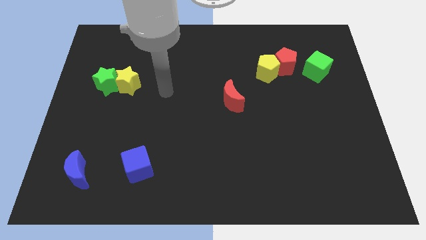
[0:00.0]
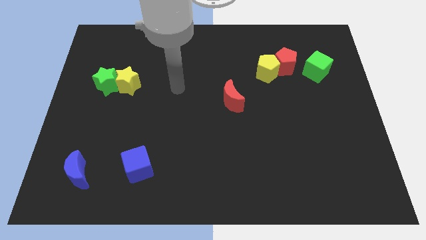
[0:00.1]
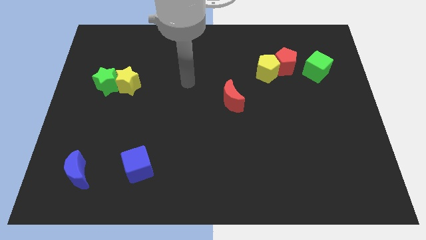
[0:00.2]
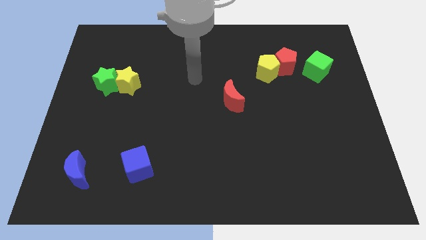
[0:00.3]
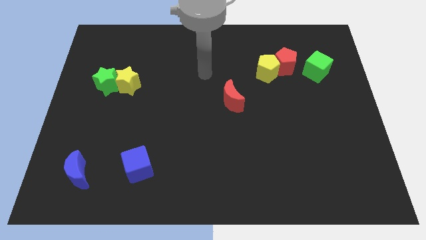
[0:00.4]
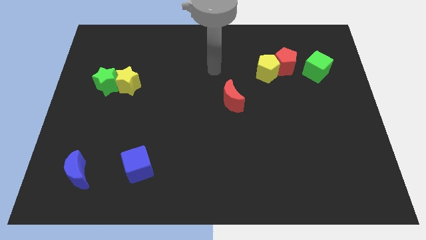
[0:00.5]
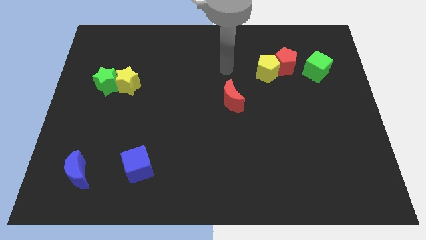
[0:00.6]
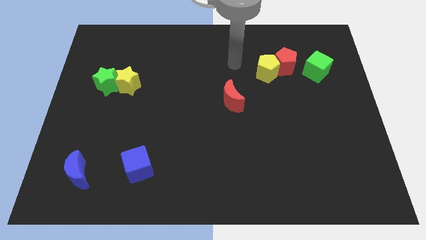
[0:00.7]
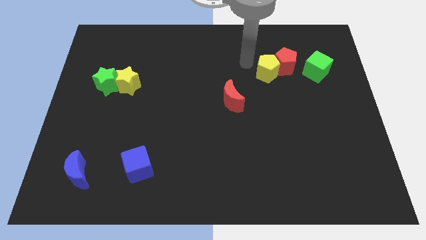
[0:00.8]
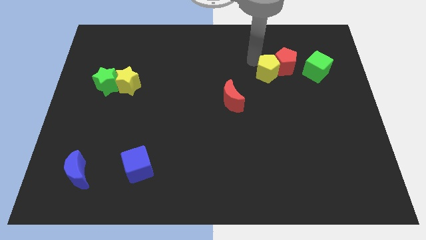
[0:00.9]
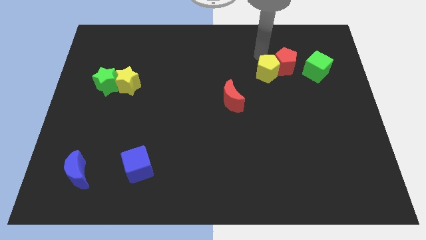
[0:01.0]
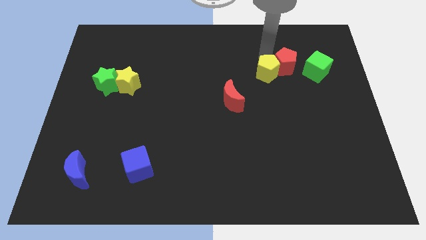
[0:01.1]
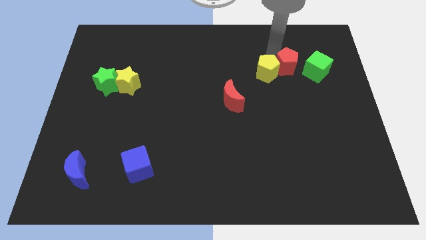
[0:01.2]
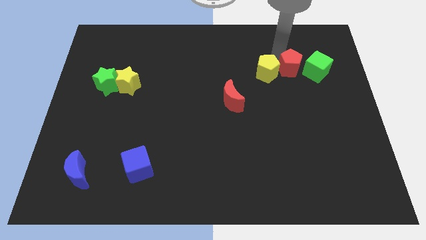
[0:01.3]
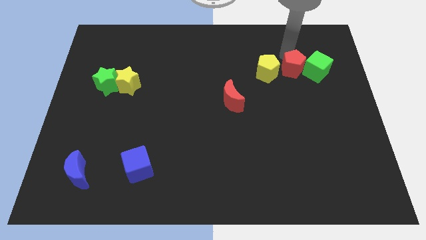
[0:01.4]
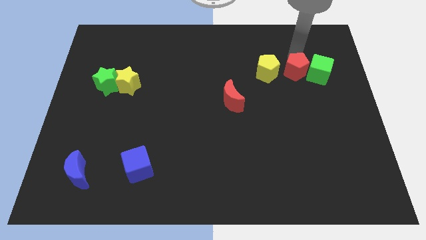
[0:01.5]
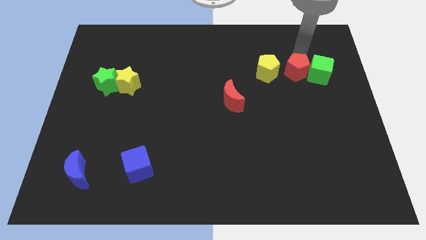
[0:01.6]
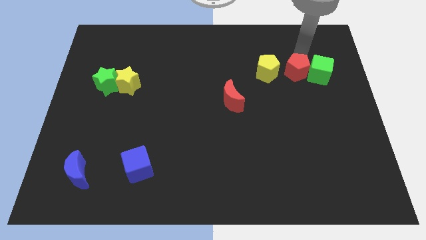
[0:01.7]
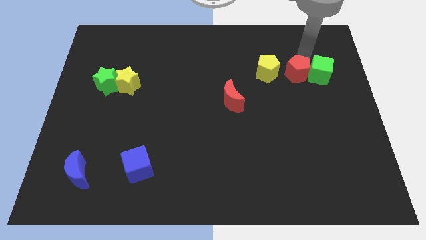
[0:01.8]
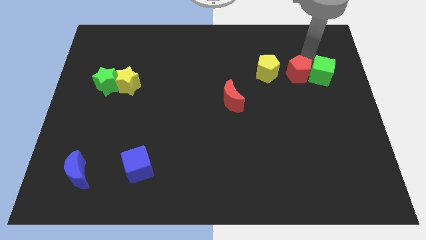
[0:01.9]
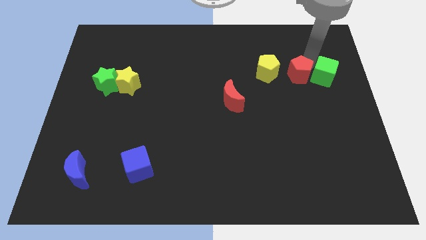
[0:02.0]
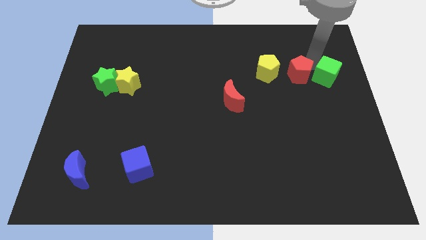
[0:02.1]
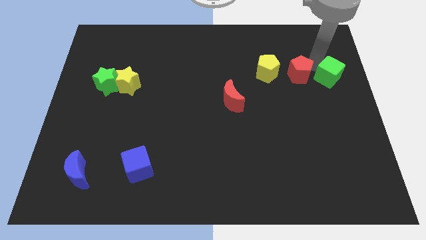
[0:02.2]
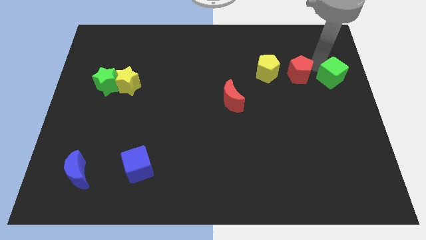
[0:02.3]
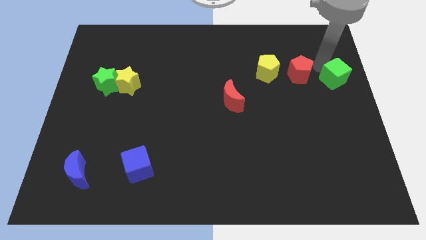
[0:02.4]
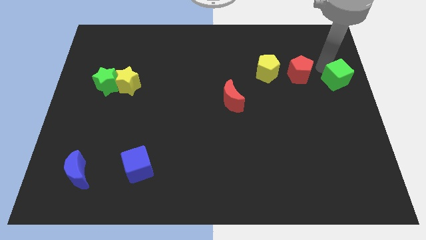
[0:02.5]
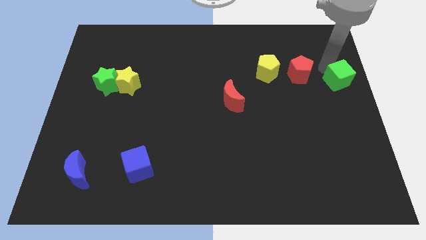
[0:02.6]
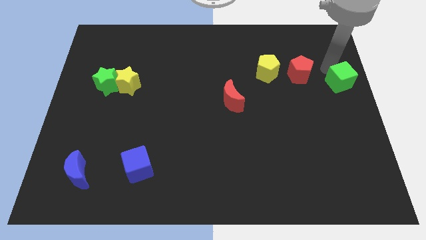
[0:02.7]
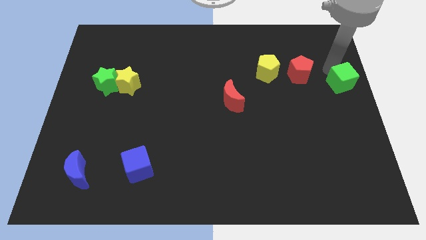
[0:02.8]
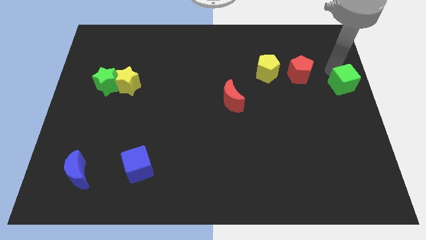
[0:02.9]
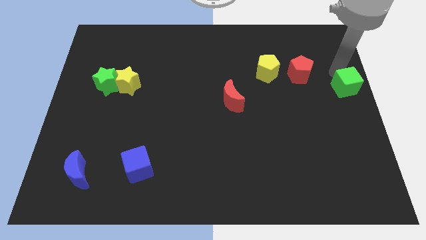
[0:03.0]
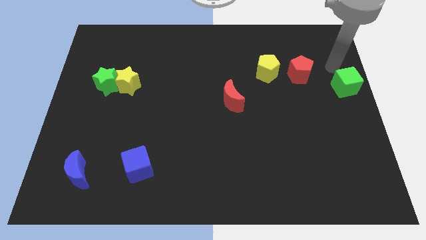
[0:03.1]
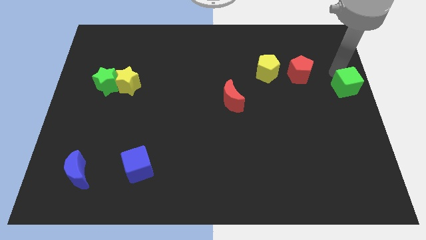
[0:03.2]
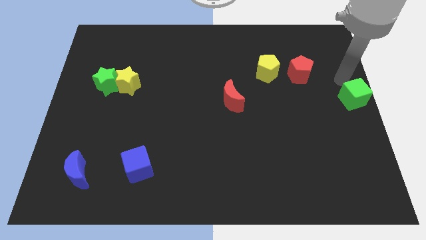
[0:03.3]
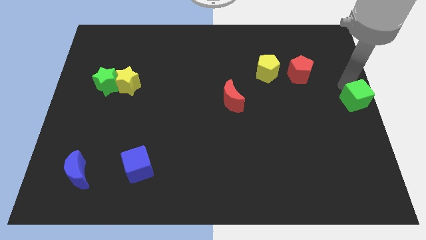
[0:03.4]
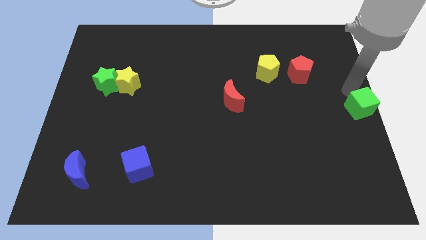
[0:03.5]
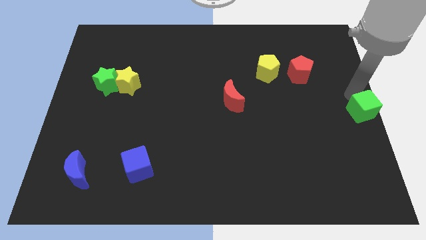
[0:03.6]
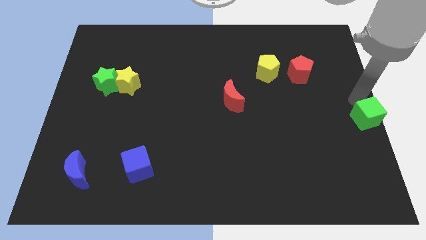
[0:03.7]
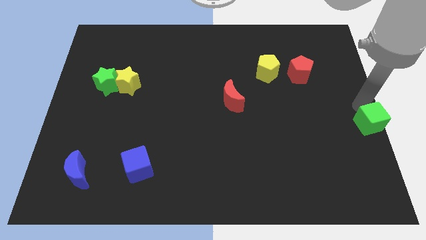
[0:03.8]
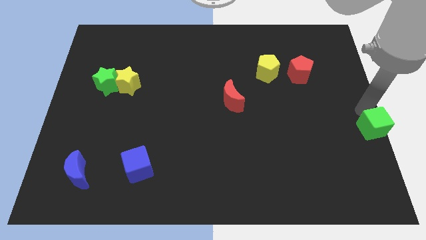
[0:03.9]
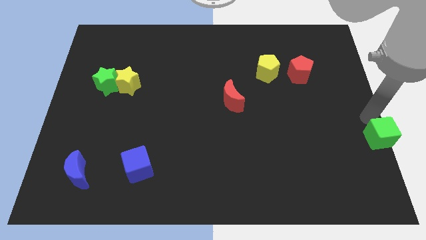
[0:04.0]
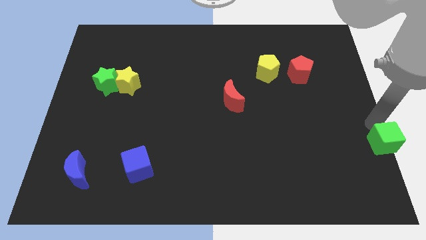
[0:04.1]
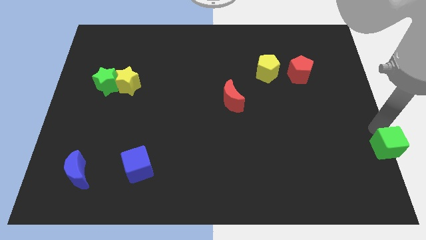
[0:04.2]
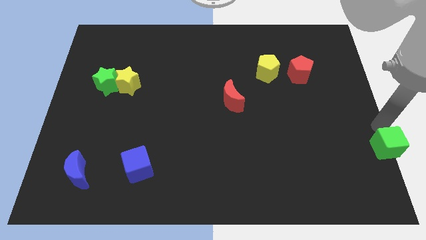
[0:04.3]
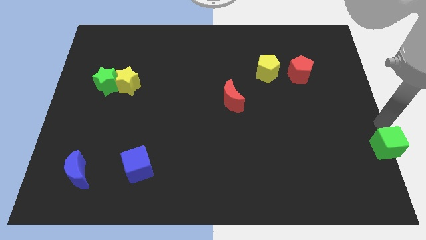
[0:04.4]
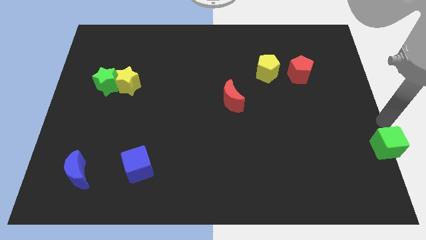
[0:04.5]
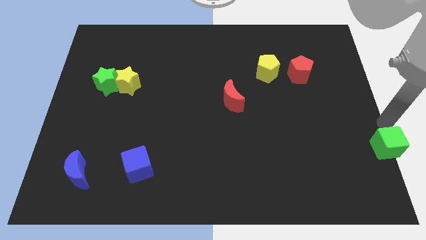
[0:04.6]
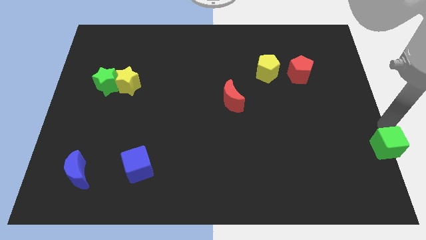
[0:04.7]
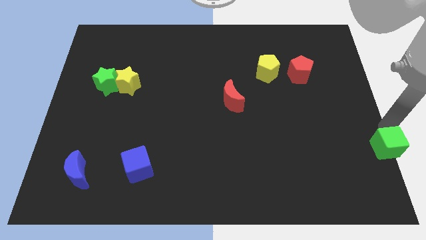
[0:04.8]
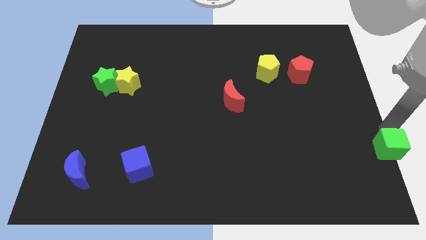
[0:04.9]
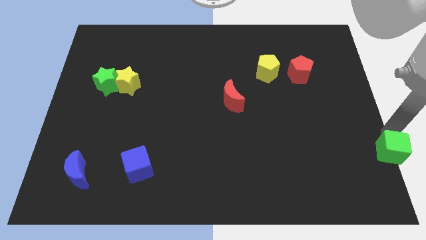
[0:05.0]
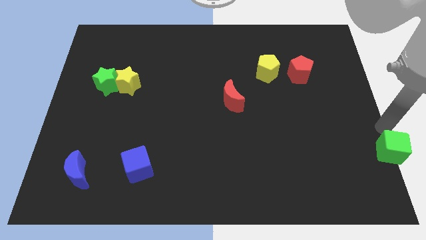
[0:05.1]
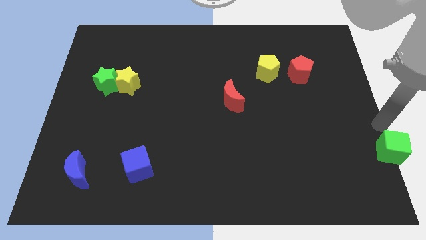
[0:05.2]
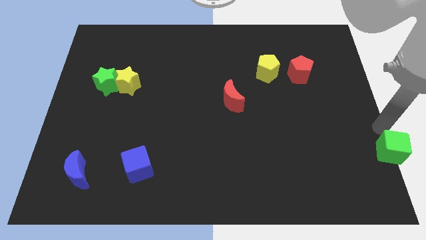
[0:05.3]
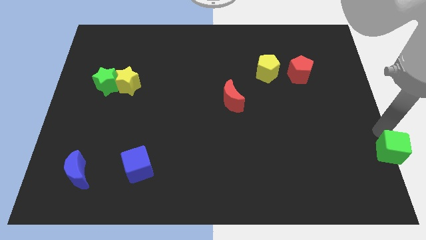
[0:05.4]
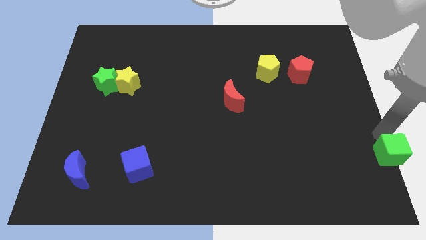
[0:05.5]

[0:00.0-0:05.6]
push the green cube to the bottom right of the board

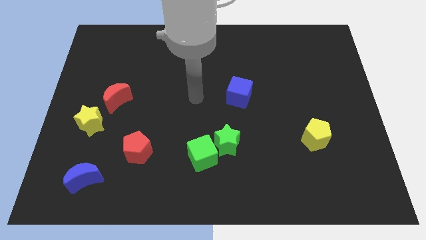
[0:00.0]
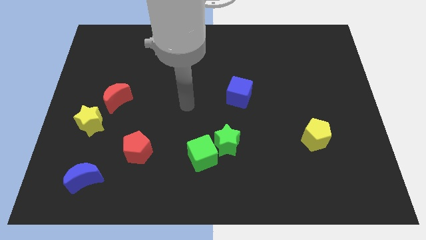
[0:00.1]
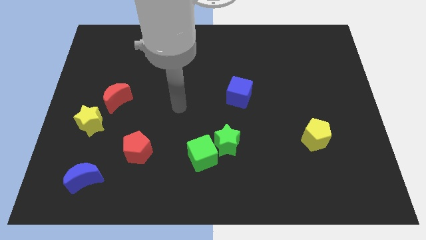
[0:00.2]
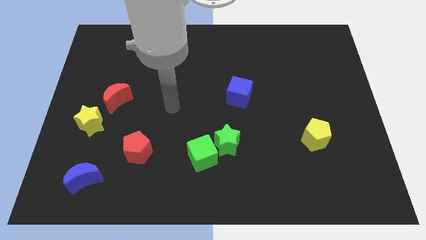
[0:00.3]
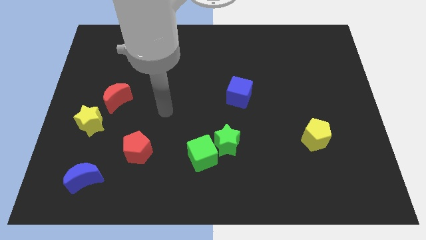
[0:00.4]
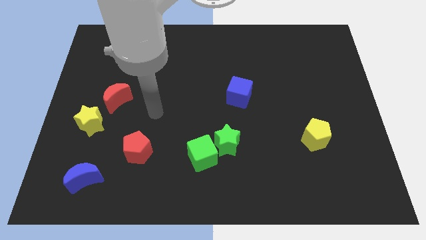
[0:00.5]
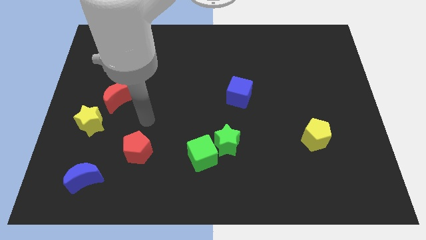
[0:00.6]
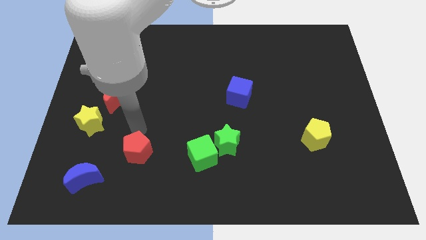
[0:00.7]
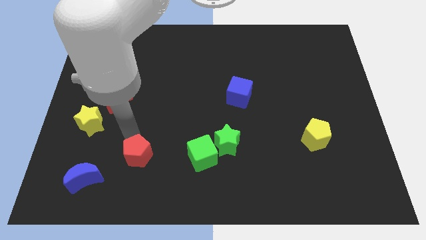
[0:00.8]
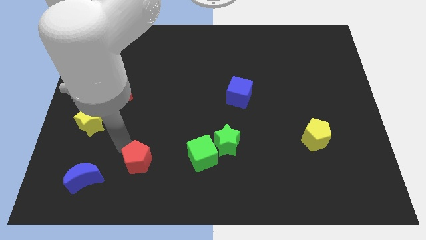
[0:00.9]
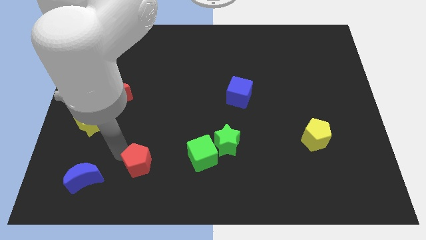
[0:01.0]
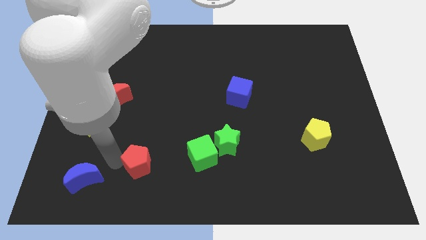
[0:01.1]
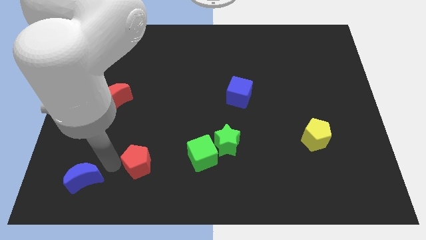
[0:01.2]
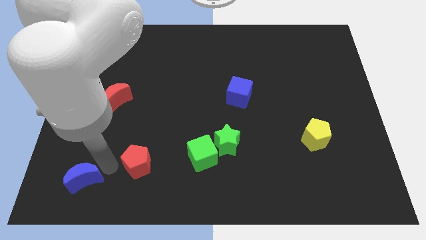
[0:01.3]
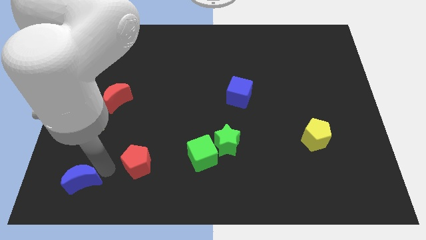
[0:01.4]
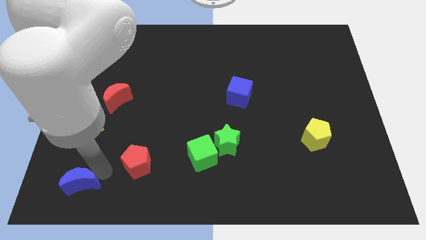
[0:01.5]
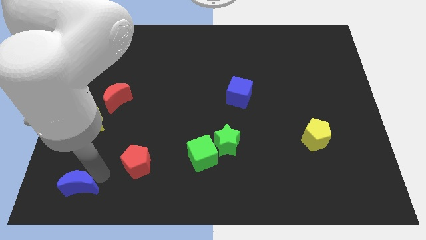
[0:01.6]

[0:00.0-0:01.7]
move the blue moon to the bottom left
